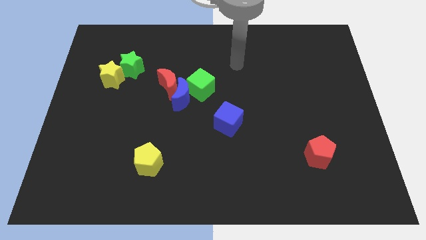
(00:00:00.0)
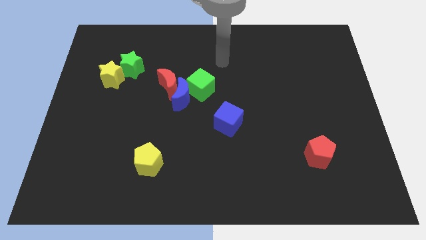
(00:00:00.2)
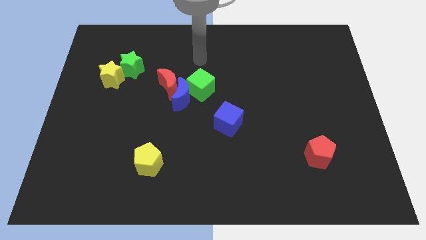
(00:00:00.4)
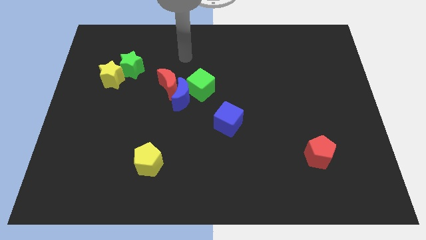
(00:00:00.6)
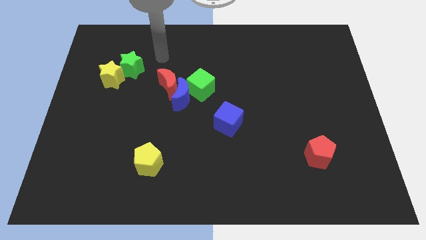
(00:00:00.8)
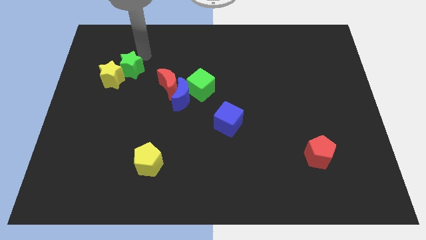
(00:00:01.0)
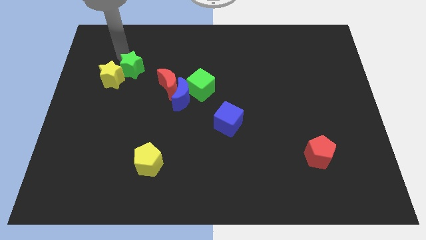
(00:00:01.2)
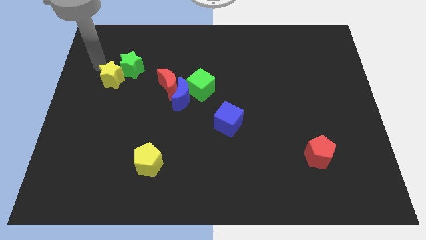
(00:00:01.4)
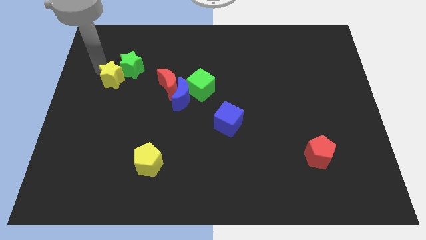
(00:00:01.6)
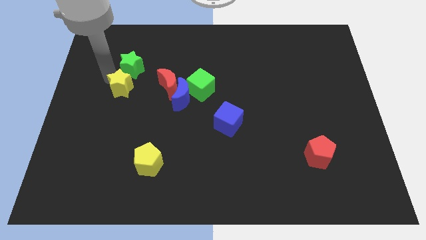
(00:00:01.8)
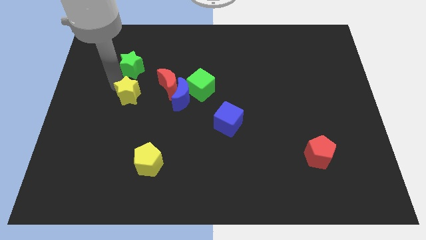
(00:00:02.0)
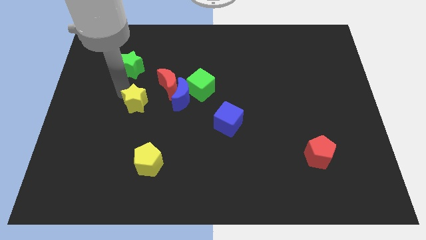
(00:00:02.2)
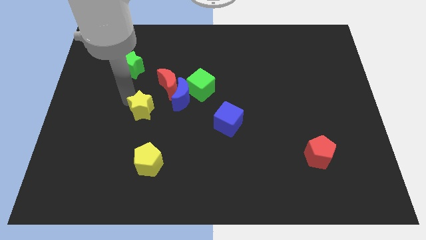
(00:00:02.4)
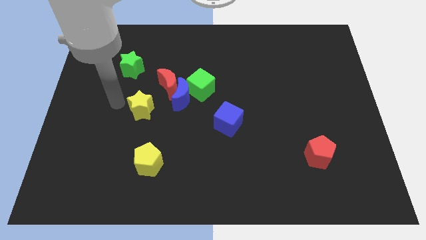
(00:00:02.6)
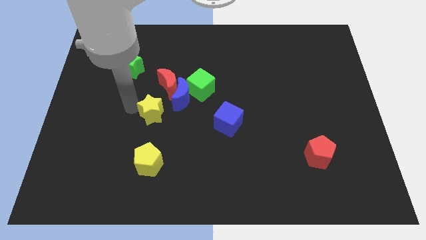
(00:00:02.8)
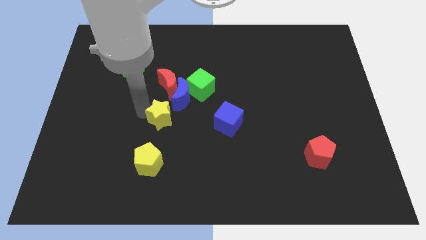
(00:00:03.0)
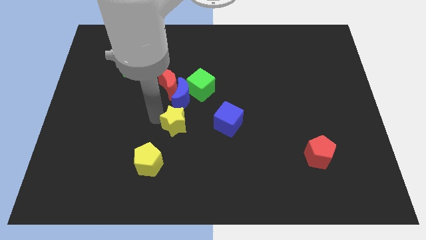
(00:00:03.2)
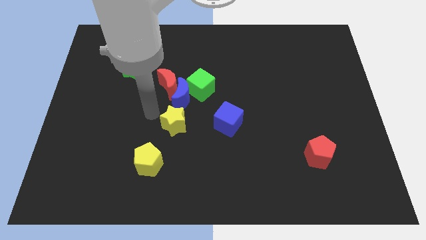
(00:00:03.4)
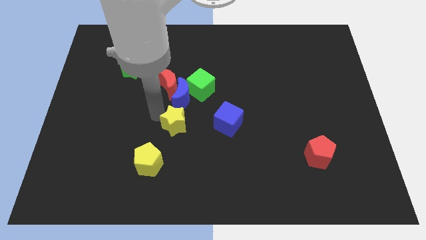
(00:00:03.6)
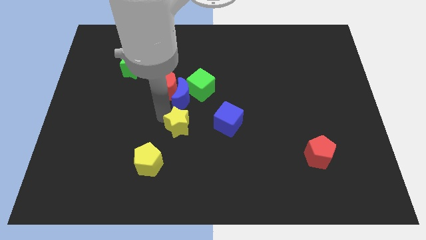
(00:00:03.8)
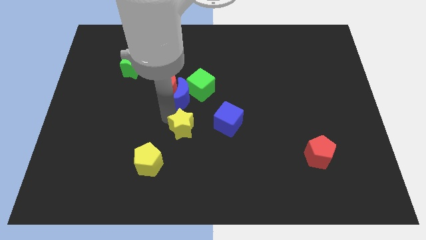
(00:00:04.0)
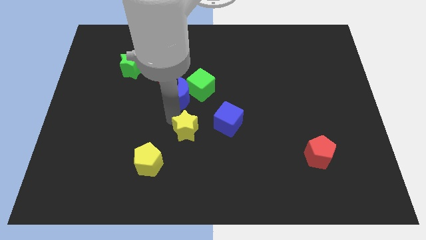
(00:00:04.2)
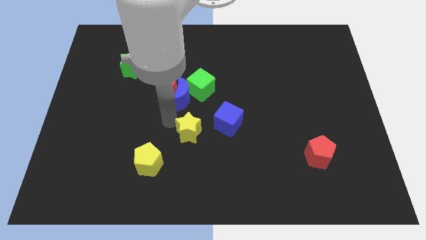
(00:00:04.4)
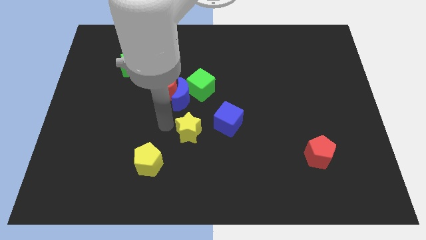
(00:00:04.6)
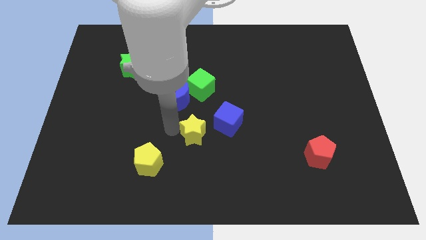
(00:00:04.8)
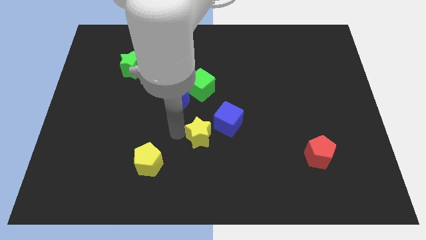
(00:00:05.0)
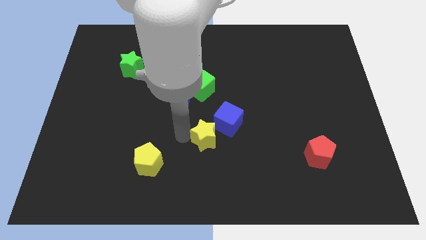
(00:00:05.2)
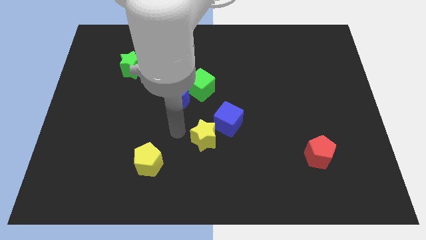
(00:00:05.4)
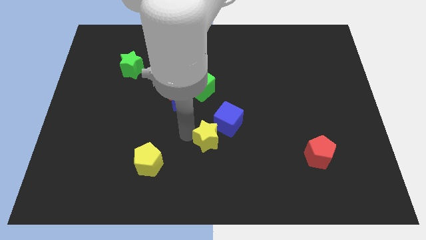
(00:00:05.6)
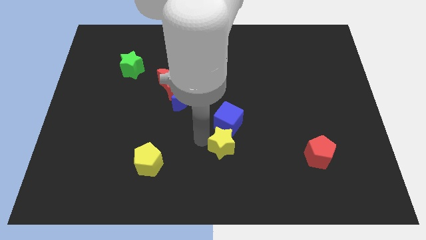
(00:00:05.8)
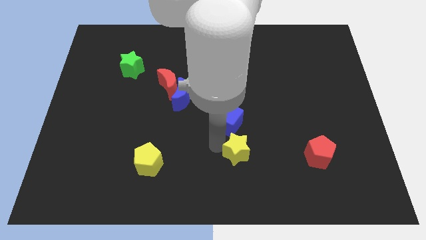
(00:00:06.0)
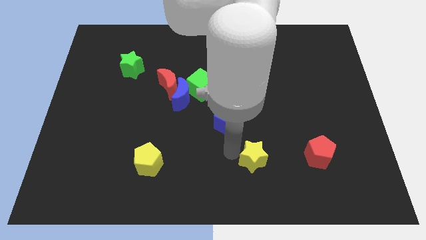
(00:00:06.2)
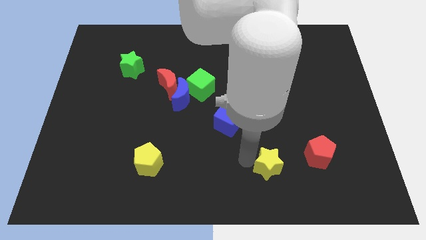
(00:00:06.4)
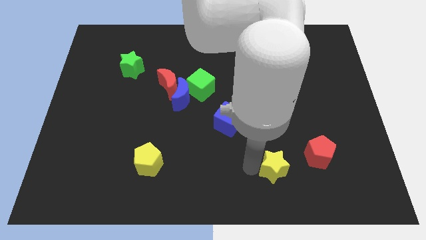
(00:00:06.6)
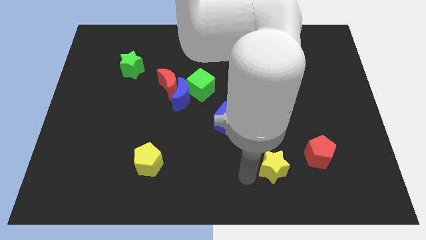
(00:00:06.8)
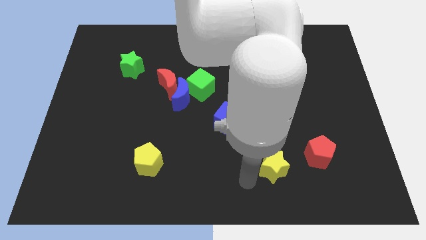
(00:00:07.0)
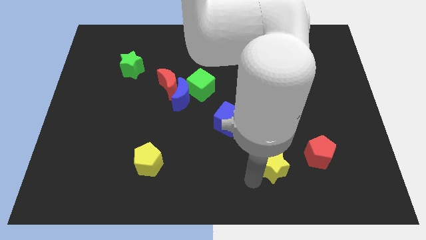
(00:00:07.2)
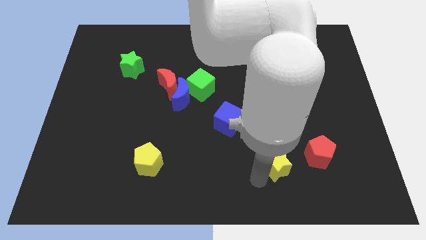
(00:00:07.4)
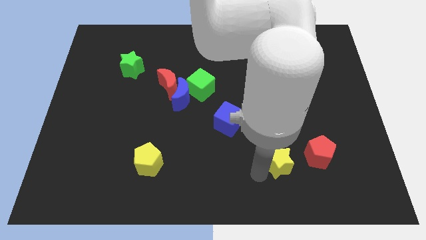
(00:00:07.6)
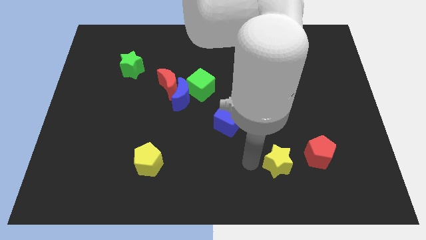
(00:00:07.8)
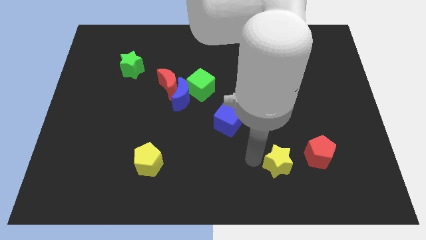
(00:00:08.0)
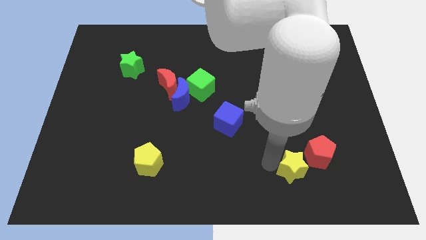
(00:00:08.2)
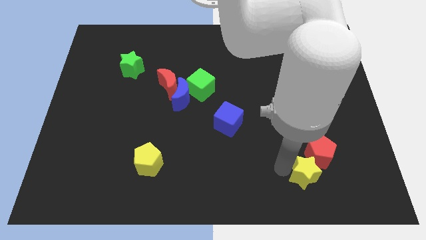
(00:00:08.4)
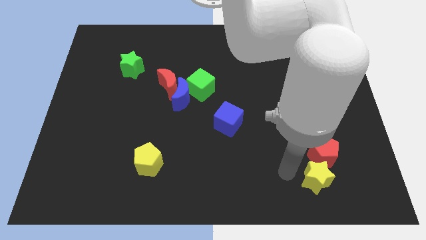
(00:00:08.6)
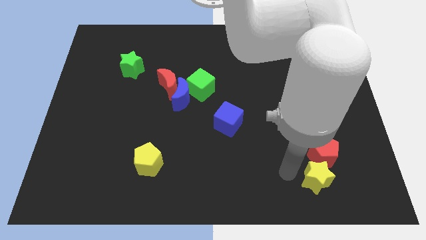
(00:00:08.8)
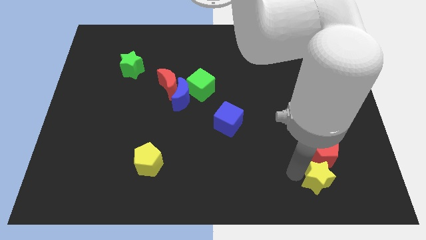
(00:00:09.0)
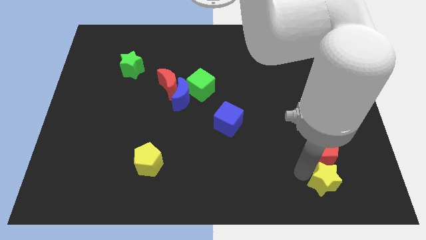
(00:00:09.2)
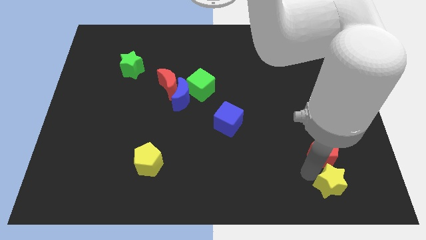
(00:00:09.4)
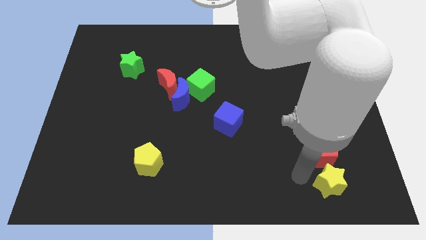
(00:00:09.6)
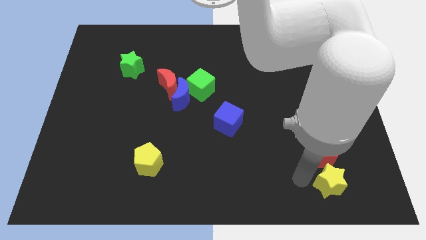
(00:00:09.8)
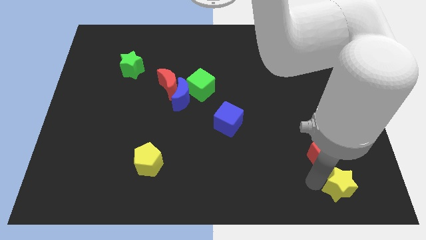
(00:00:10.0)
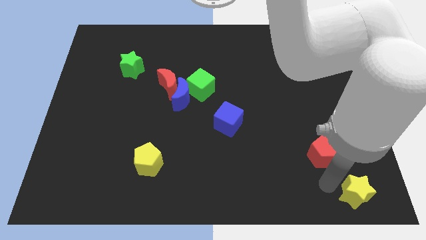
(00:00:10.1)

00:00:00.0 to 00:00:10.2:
move the yellow star to the bottom right

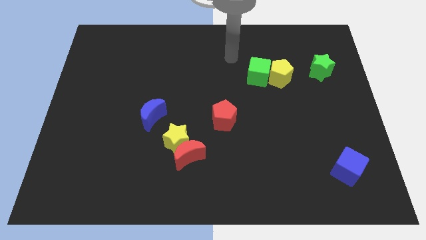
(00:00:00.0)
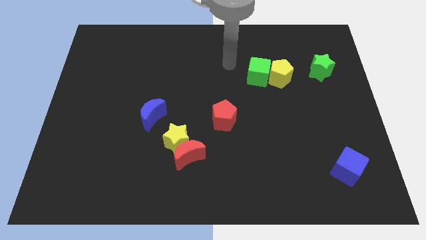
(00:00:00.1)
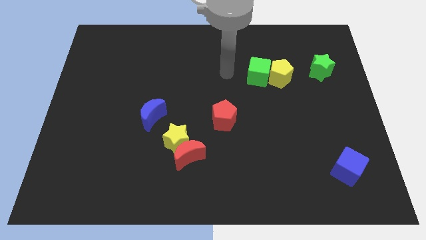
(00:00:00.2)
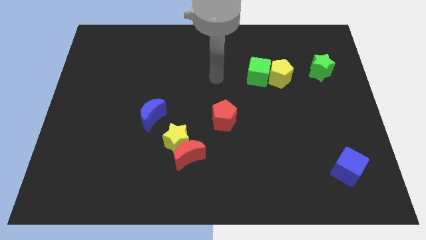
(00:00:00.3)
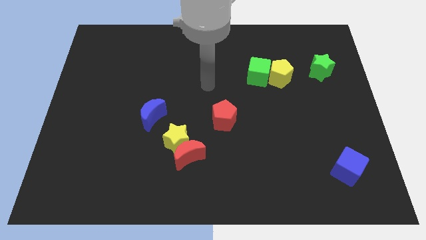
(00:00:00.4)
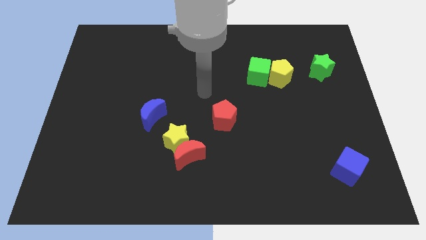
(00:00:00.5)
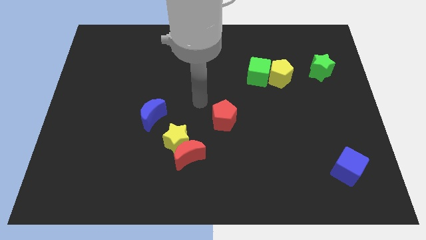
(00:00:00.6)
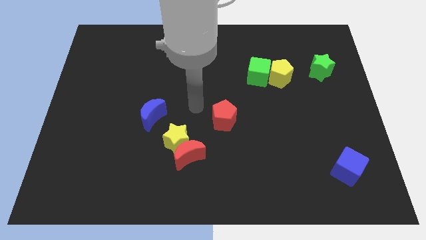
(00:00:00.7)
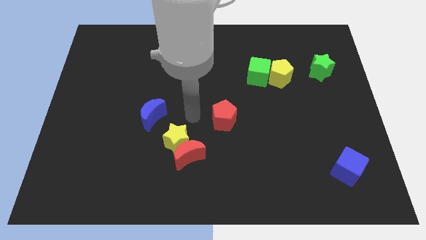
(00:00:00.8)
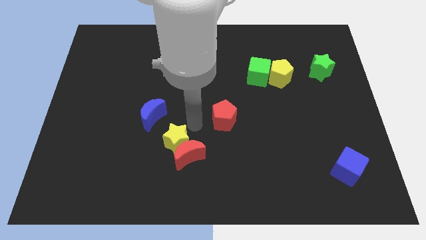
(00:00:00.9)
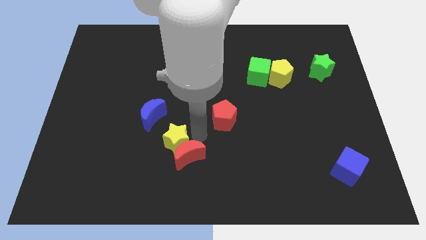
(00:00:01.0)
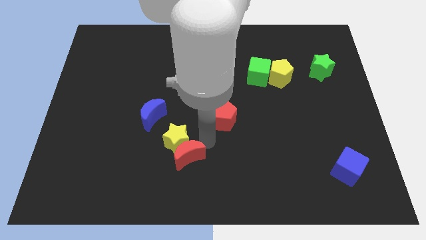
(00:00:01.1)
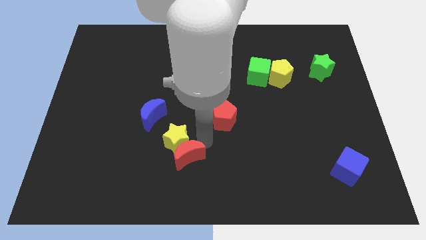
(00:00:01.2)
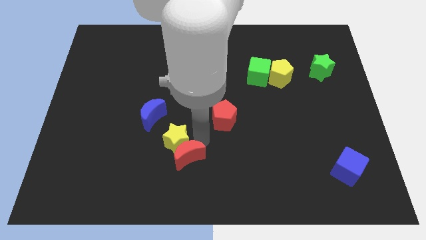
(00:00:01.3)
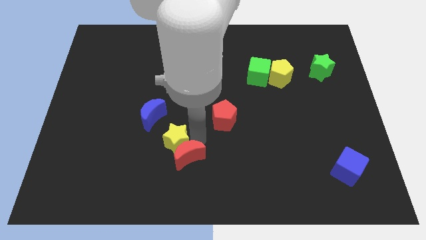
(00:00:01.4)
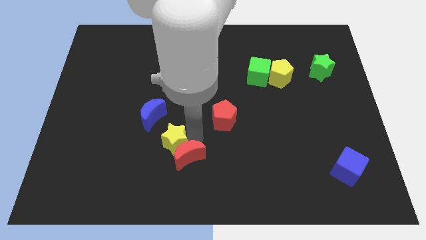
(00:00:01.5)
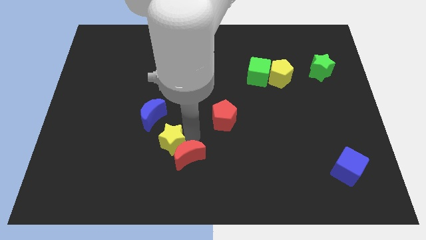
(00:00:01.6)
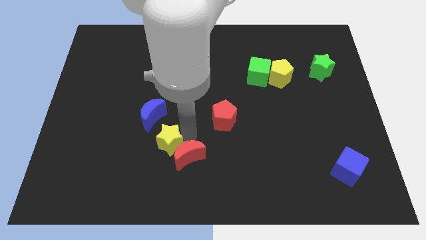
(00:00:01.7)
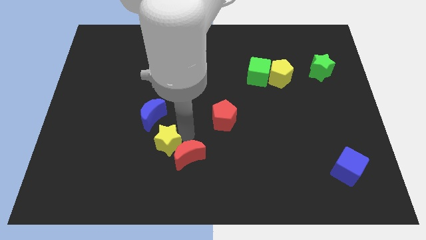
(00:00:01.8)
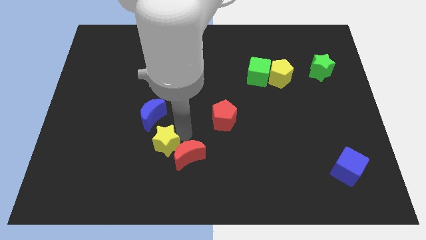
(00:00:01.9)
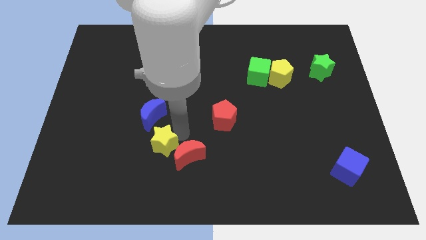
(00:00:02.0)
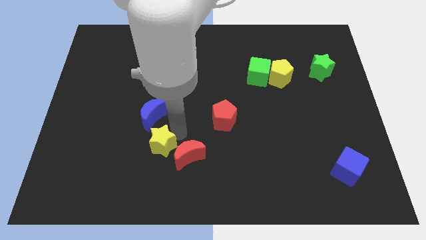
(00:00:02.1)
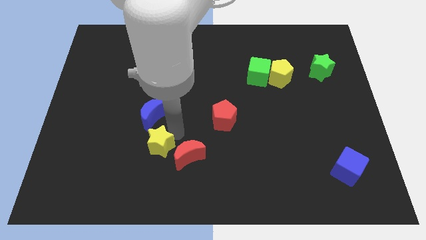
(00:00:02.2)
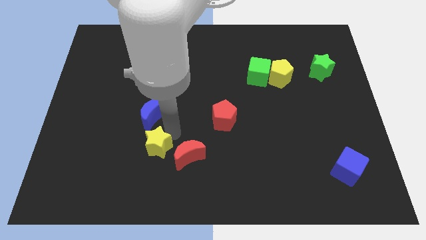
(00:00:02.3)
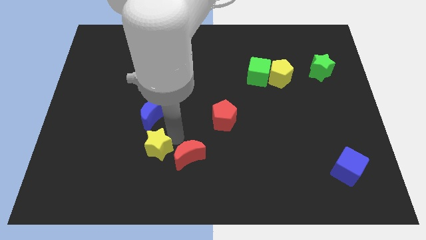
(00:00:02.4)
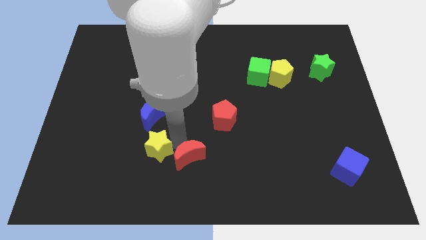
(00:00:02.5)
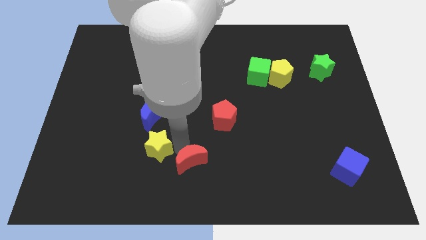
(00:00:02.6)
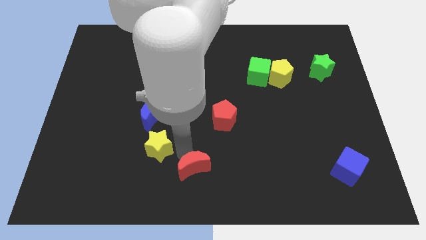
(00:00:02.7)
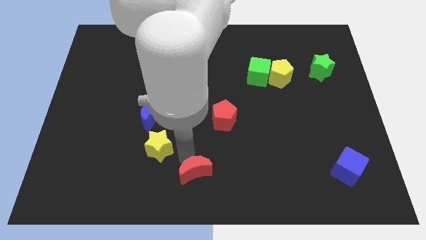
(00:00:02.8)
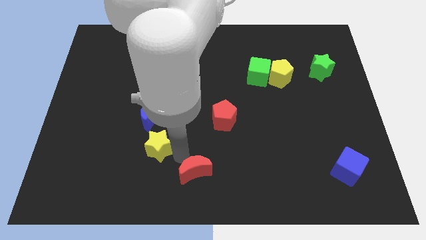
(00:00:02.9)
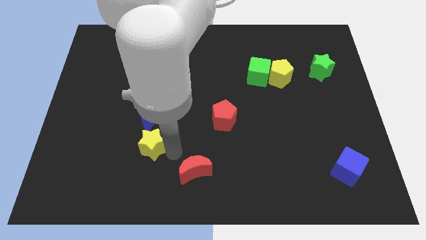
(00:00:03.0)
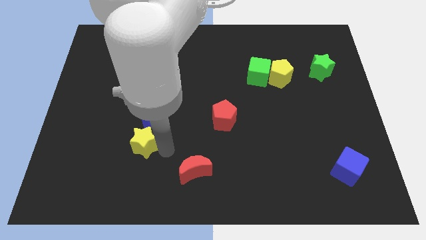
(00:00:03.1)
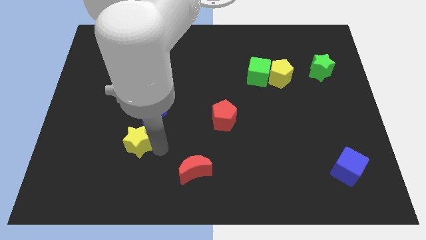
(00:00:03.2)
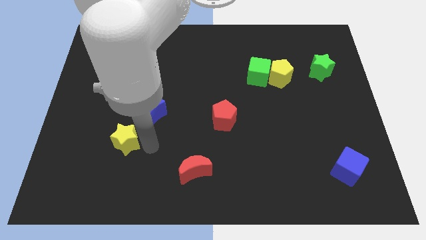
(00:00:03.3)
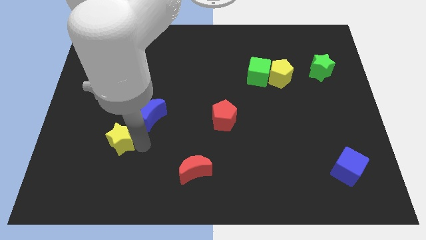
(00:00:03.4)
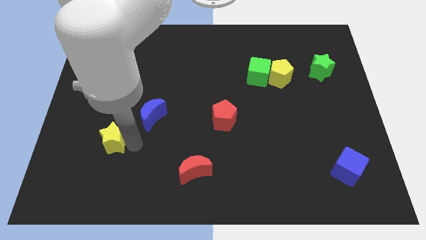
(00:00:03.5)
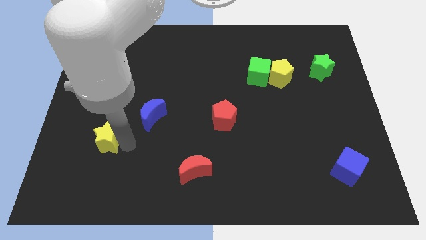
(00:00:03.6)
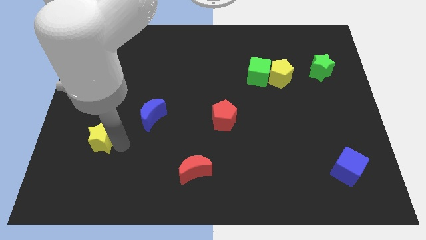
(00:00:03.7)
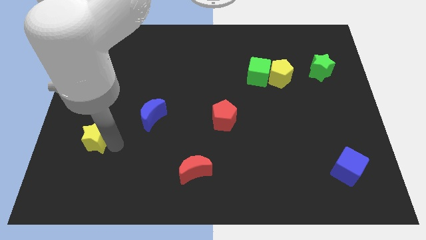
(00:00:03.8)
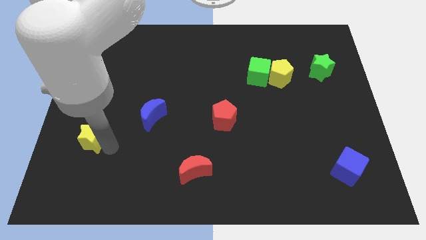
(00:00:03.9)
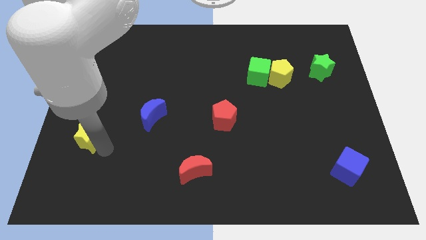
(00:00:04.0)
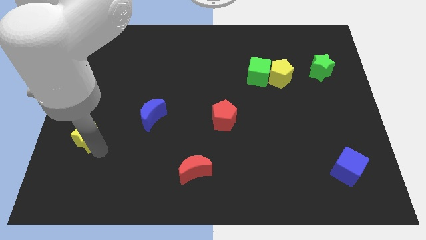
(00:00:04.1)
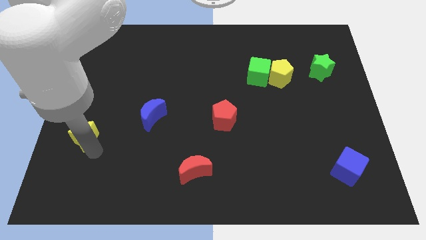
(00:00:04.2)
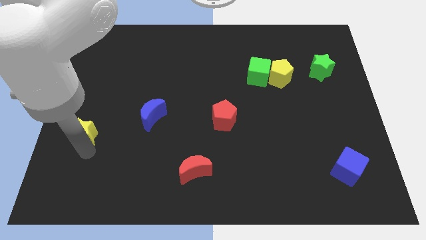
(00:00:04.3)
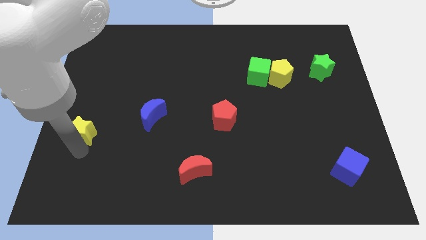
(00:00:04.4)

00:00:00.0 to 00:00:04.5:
move the yellow star to the left side of the board
